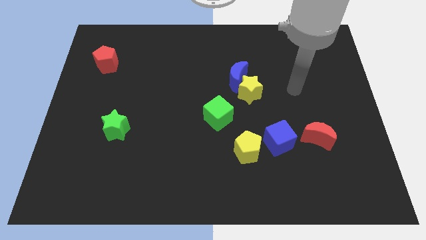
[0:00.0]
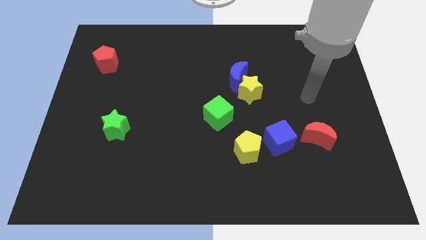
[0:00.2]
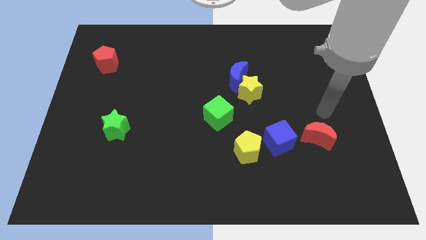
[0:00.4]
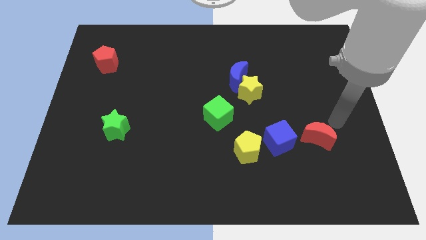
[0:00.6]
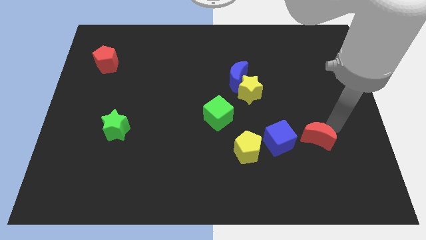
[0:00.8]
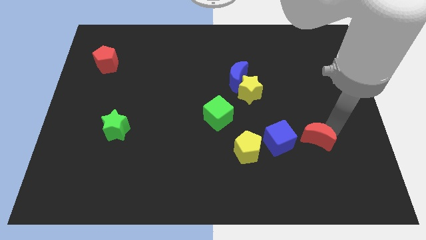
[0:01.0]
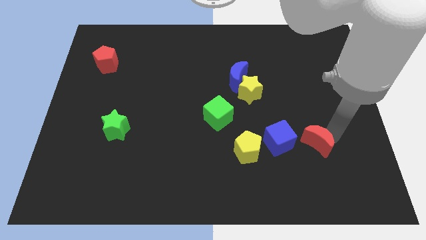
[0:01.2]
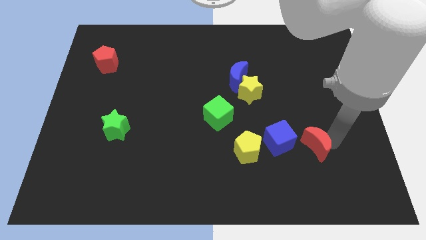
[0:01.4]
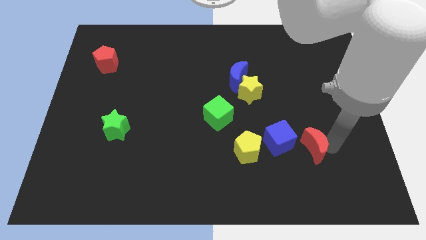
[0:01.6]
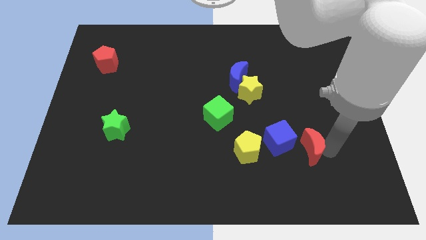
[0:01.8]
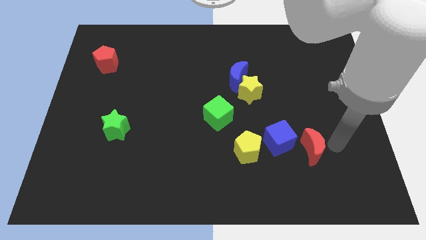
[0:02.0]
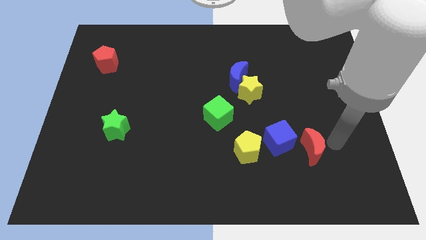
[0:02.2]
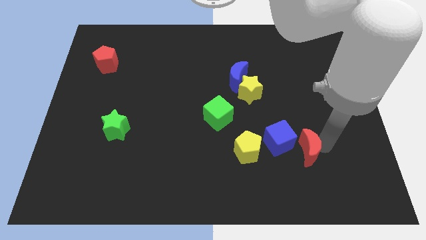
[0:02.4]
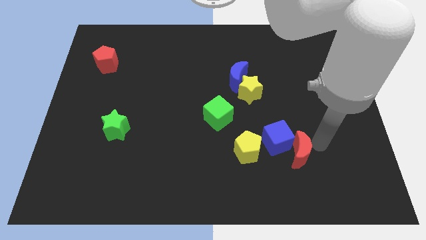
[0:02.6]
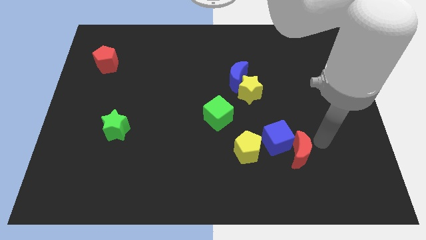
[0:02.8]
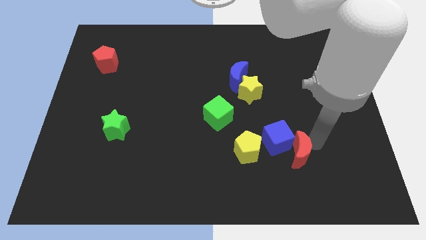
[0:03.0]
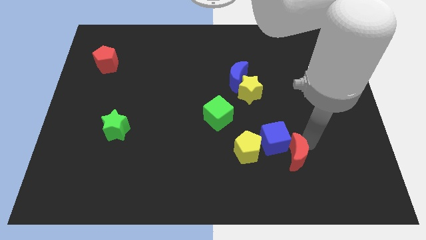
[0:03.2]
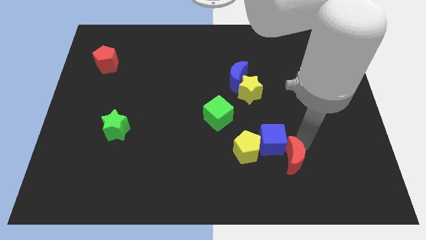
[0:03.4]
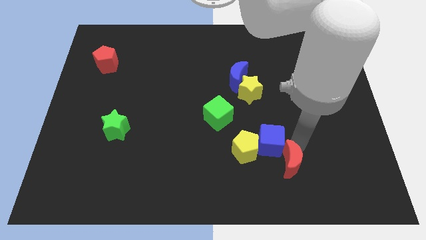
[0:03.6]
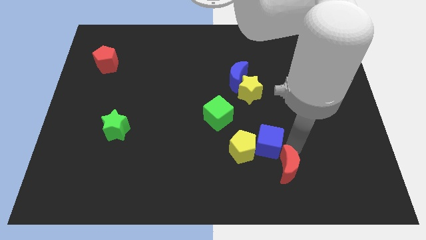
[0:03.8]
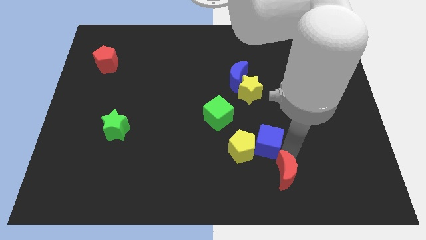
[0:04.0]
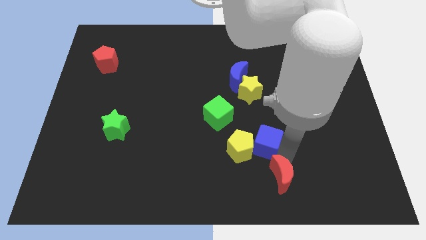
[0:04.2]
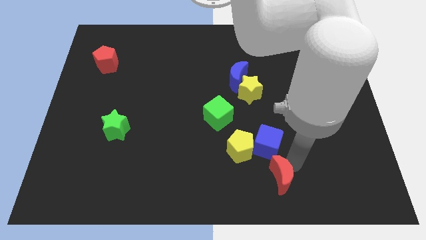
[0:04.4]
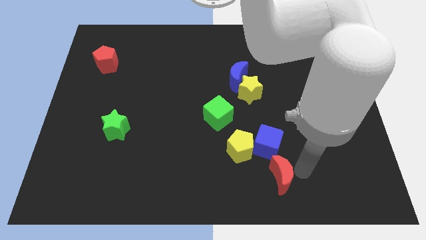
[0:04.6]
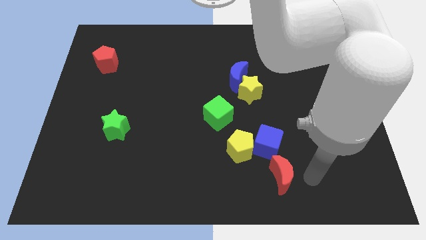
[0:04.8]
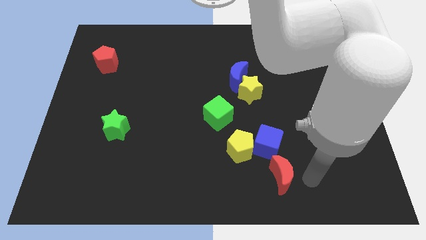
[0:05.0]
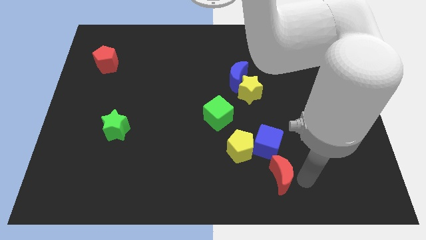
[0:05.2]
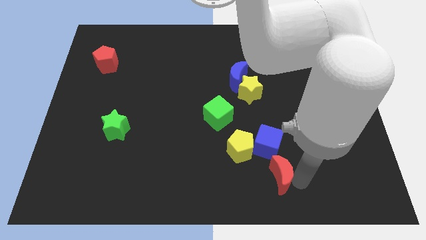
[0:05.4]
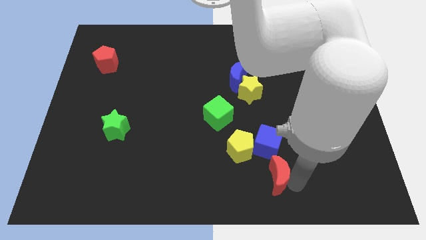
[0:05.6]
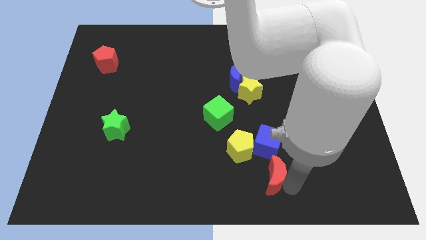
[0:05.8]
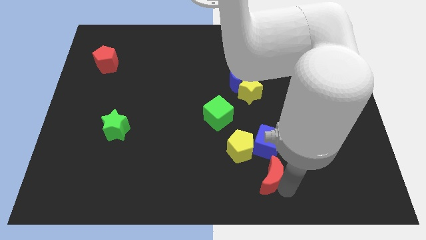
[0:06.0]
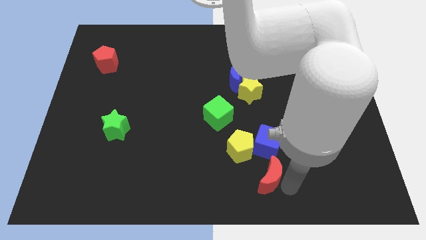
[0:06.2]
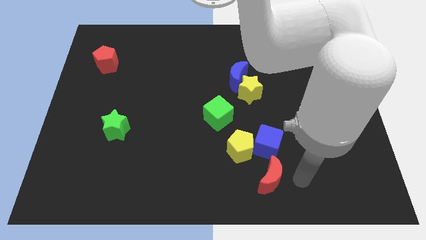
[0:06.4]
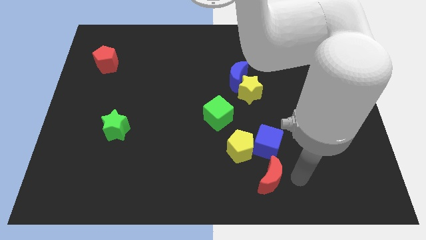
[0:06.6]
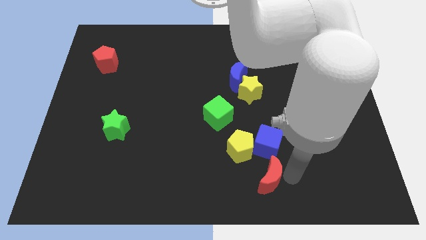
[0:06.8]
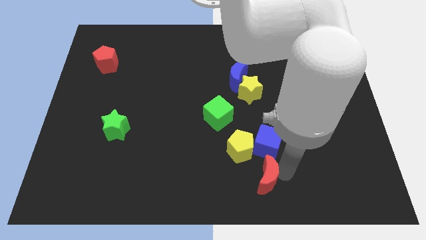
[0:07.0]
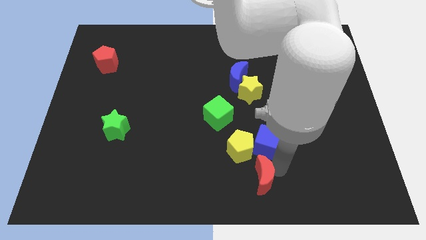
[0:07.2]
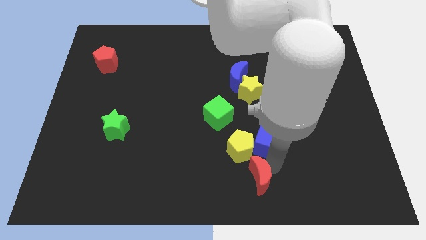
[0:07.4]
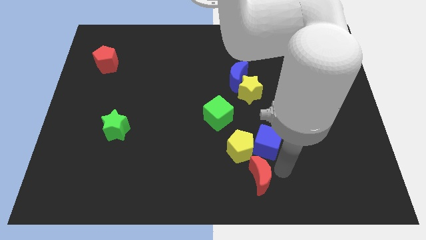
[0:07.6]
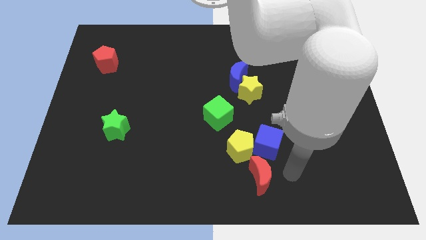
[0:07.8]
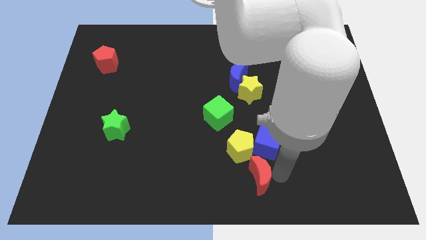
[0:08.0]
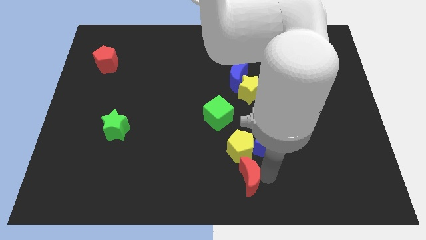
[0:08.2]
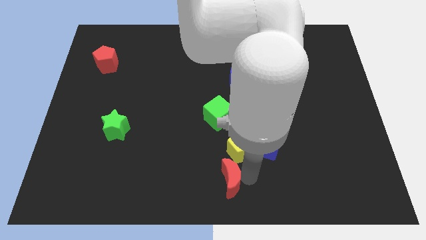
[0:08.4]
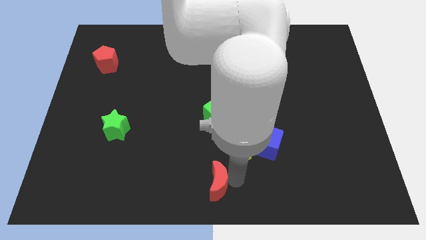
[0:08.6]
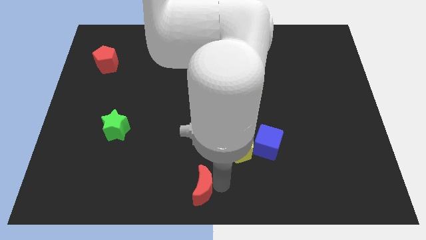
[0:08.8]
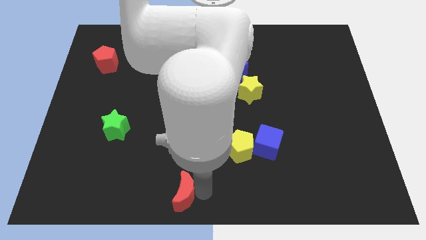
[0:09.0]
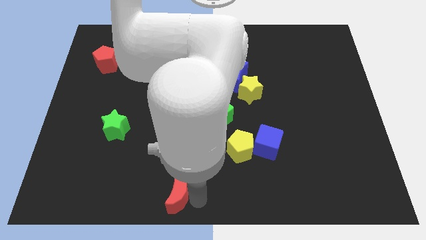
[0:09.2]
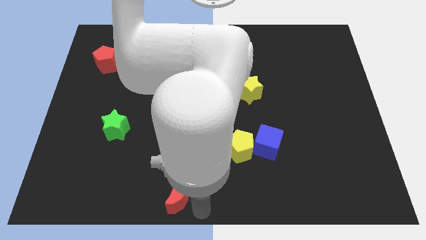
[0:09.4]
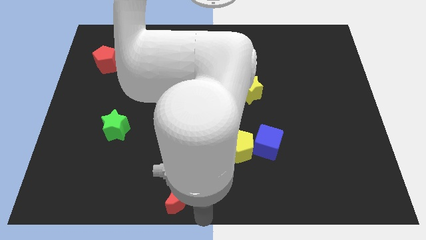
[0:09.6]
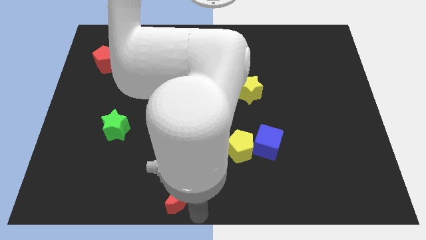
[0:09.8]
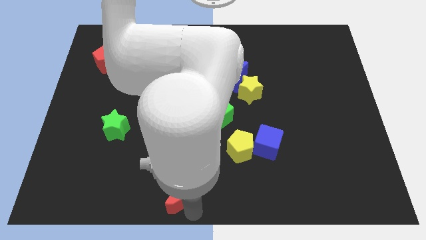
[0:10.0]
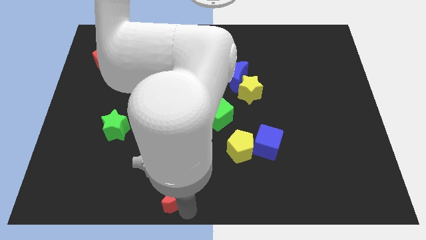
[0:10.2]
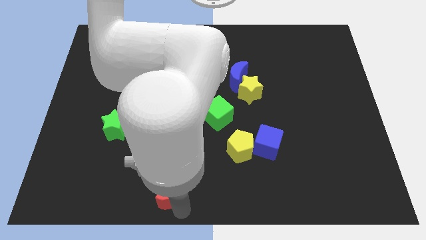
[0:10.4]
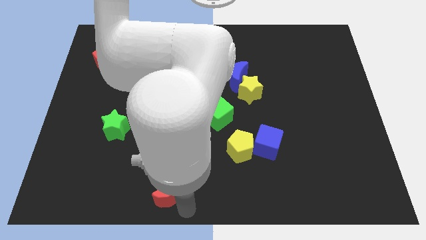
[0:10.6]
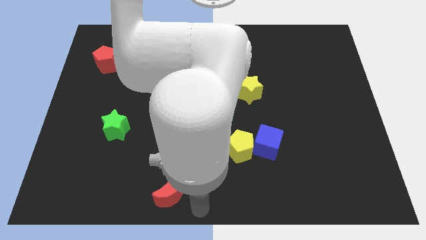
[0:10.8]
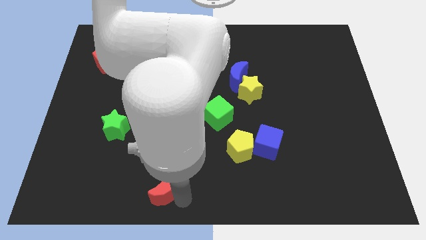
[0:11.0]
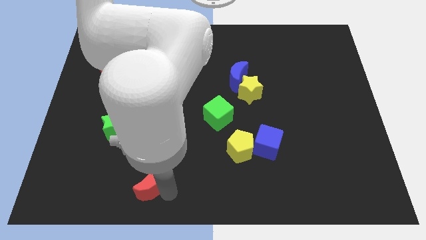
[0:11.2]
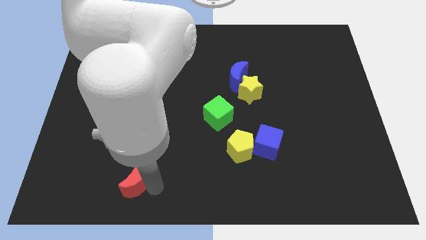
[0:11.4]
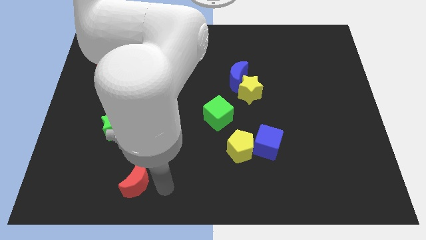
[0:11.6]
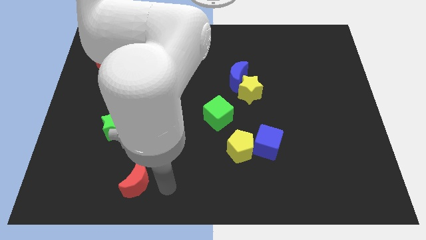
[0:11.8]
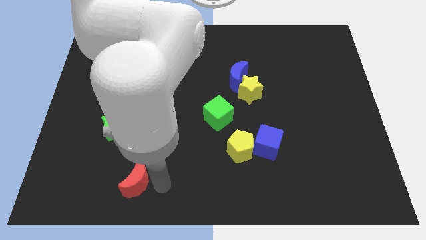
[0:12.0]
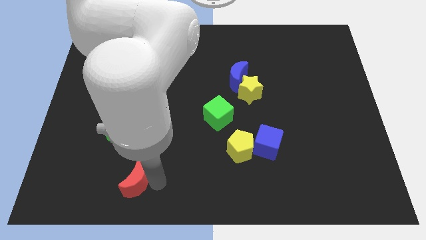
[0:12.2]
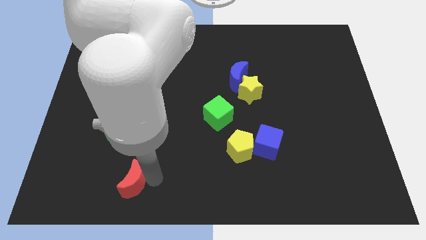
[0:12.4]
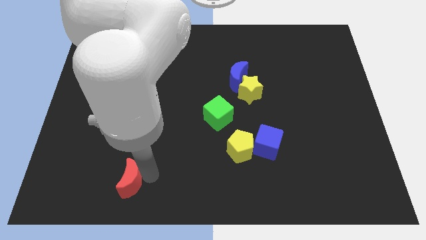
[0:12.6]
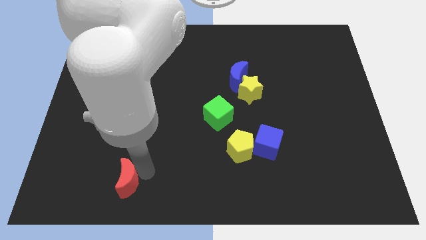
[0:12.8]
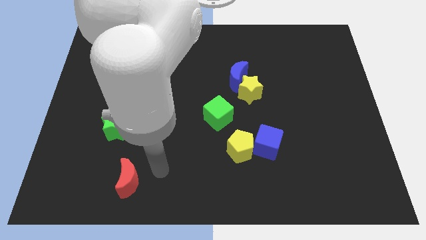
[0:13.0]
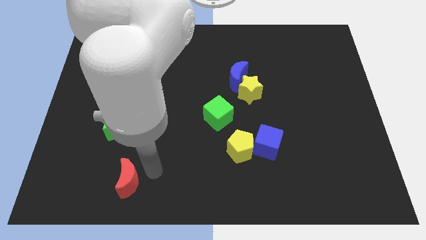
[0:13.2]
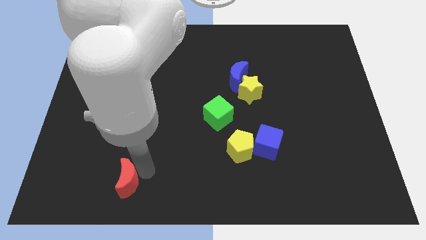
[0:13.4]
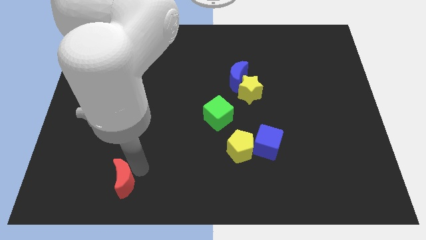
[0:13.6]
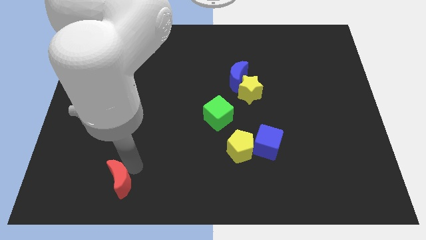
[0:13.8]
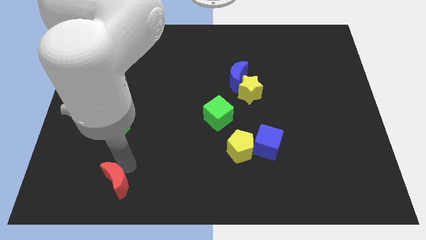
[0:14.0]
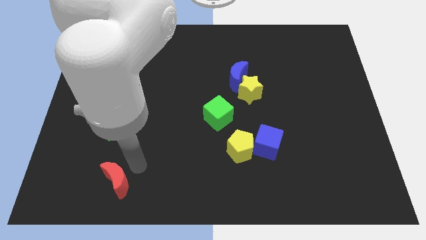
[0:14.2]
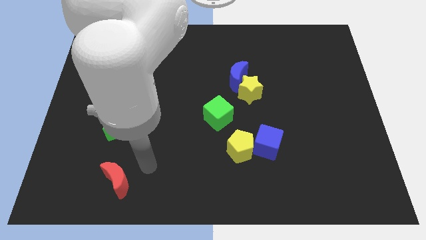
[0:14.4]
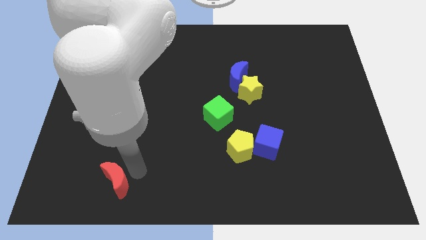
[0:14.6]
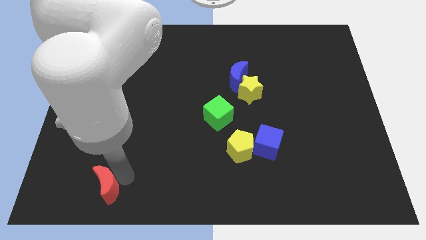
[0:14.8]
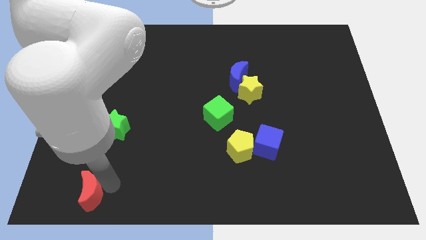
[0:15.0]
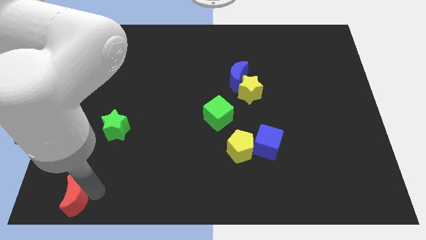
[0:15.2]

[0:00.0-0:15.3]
put the red moon to the bottom left corner
